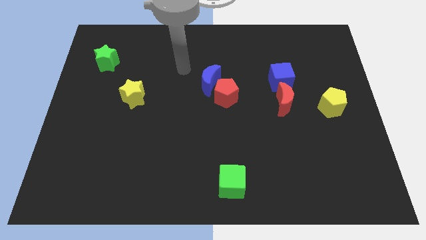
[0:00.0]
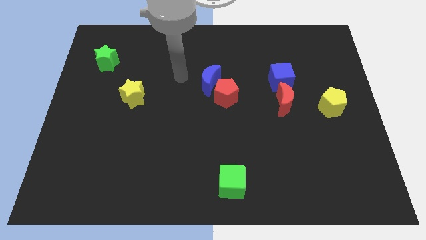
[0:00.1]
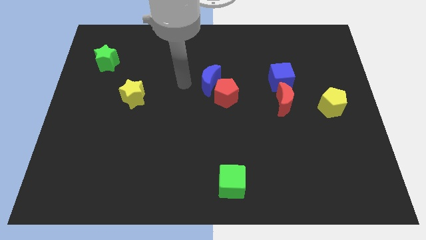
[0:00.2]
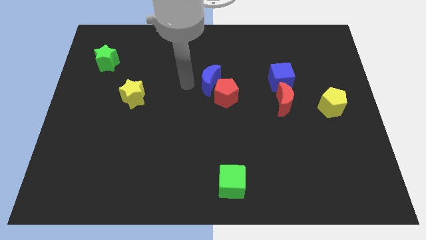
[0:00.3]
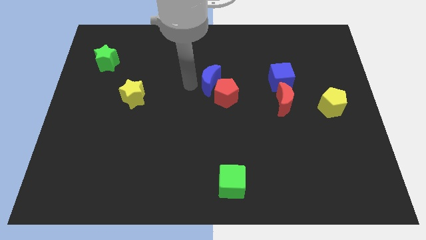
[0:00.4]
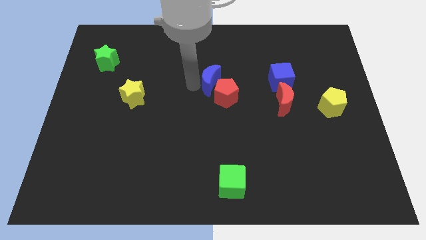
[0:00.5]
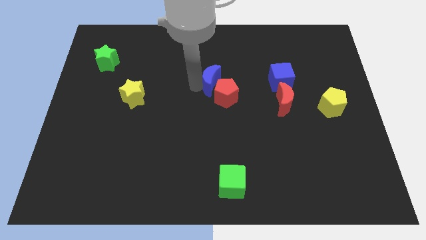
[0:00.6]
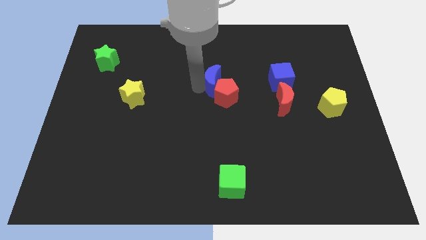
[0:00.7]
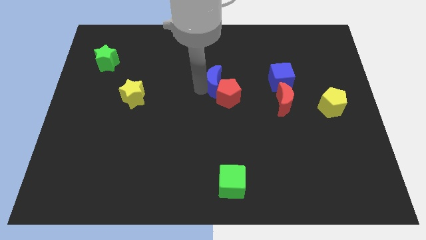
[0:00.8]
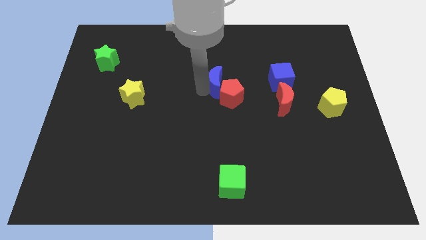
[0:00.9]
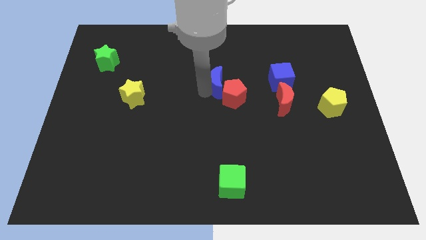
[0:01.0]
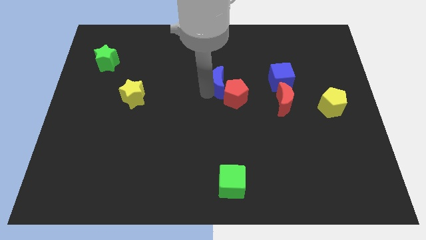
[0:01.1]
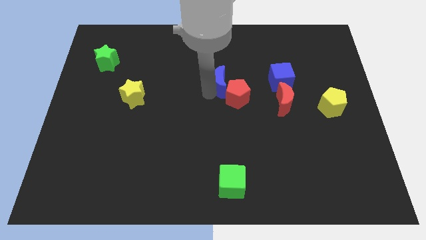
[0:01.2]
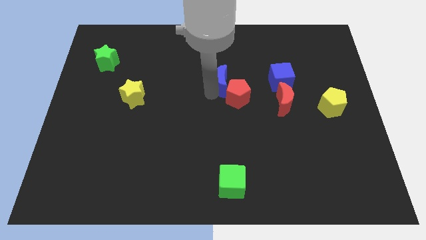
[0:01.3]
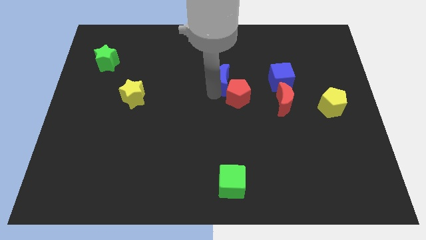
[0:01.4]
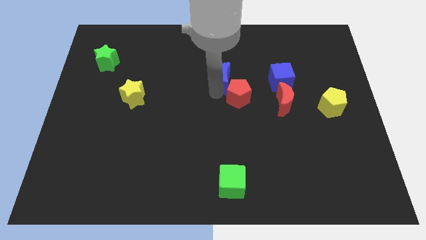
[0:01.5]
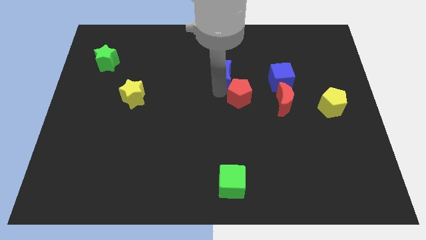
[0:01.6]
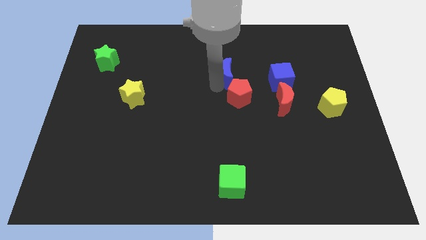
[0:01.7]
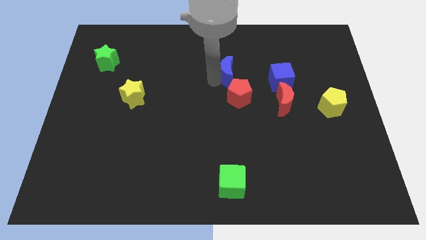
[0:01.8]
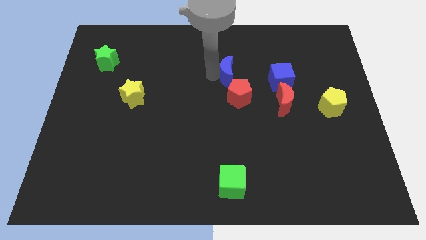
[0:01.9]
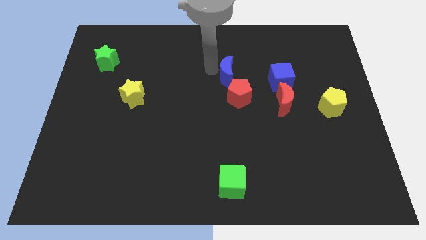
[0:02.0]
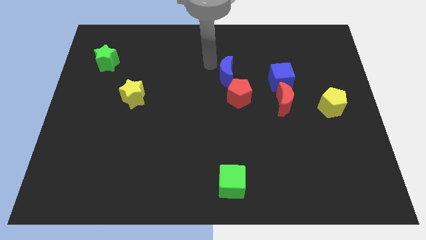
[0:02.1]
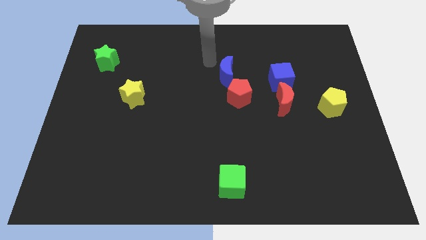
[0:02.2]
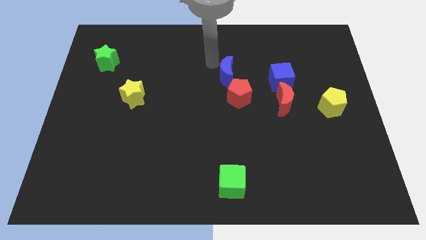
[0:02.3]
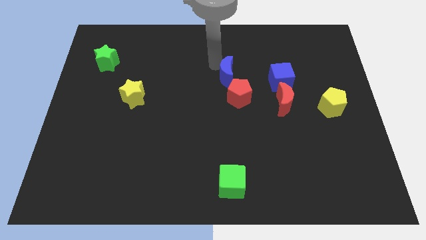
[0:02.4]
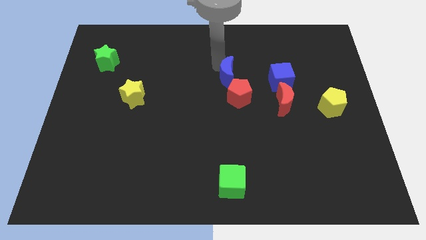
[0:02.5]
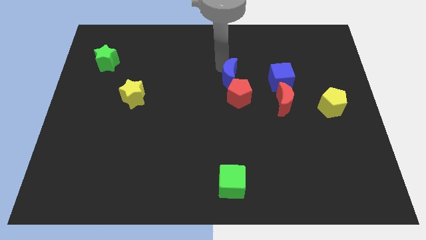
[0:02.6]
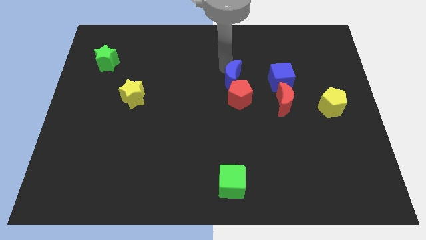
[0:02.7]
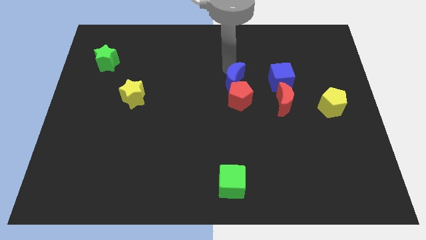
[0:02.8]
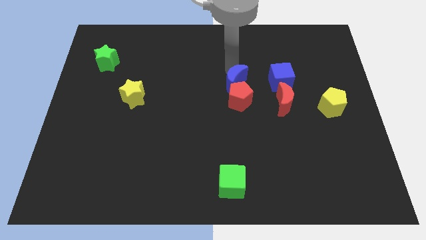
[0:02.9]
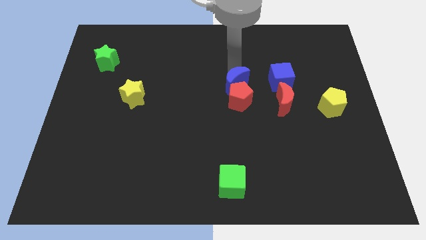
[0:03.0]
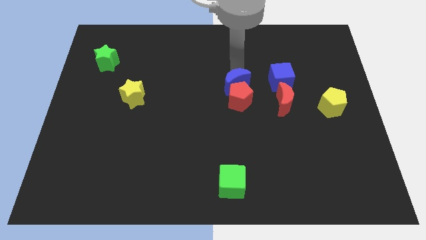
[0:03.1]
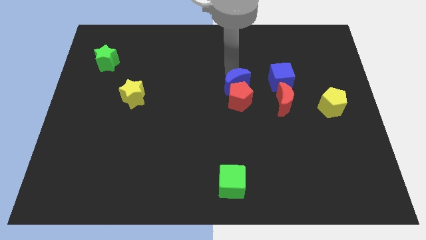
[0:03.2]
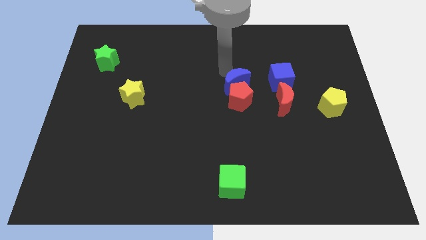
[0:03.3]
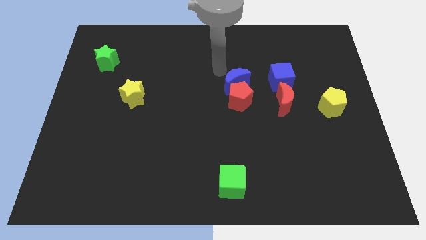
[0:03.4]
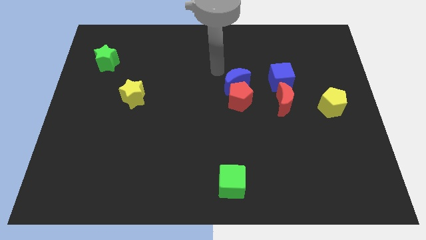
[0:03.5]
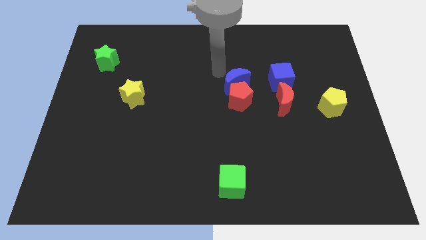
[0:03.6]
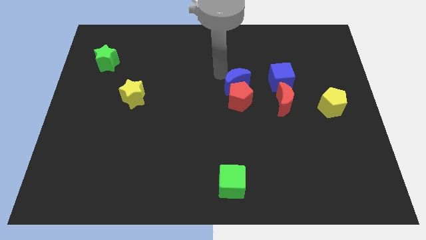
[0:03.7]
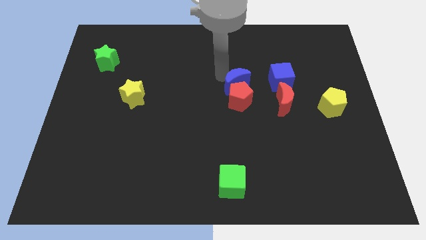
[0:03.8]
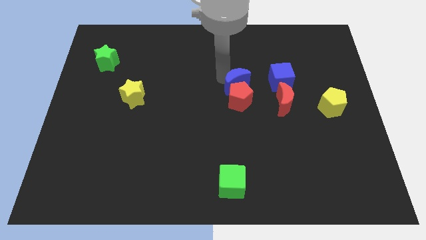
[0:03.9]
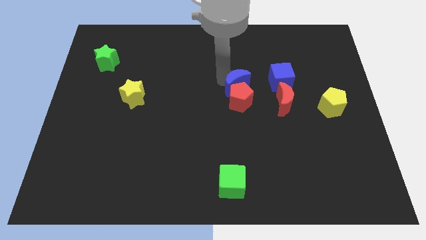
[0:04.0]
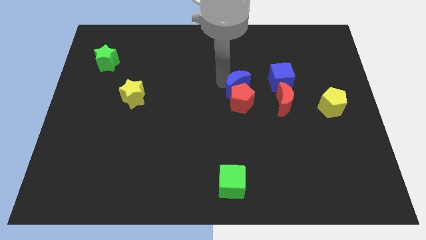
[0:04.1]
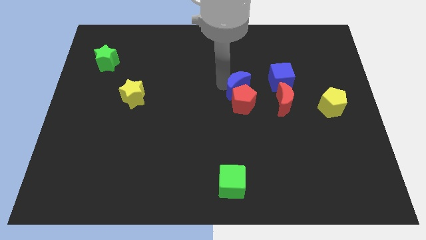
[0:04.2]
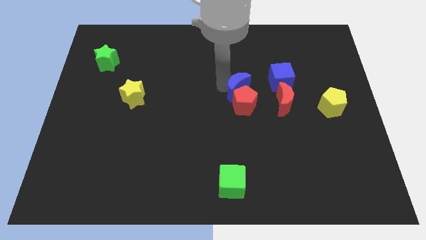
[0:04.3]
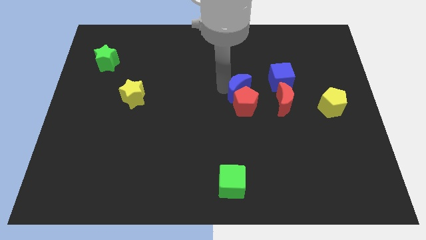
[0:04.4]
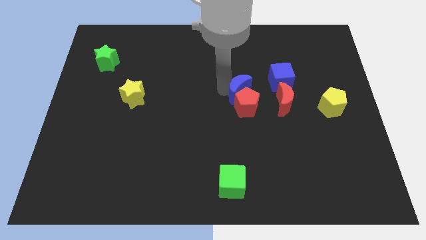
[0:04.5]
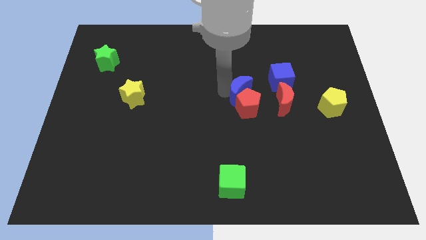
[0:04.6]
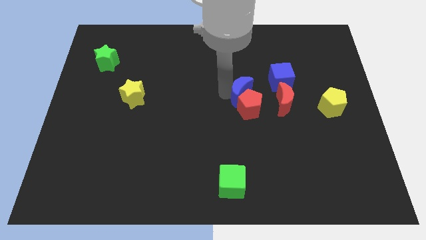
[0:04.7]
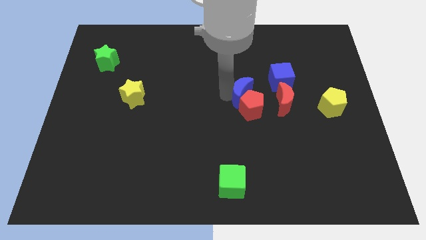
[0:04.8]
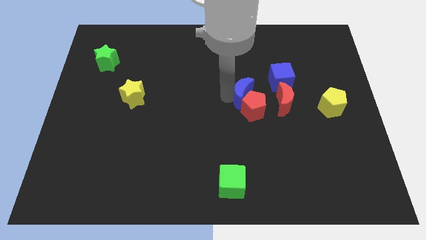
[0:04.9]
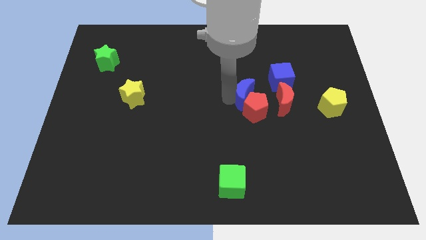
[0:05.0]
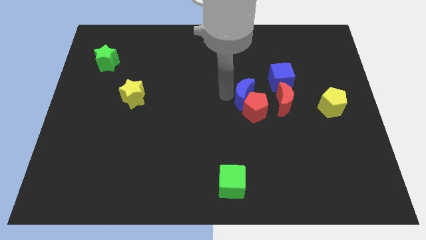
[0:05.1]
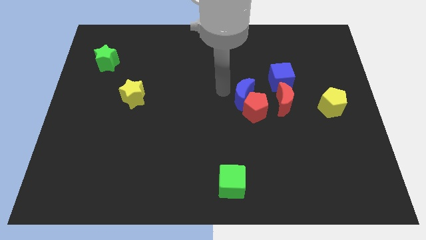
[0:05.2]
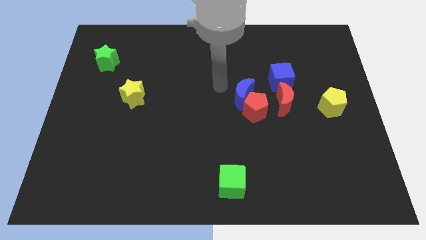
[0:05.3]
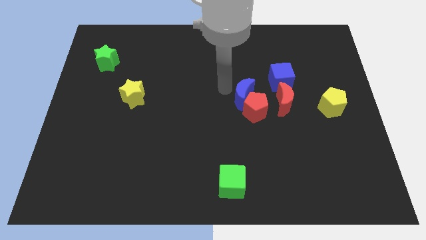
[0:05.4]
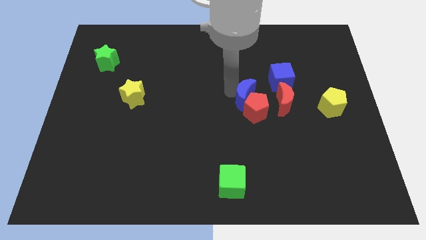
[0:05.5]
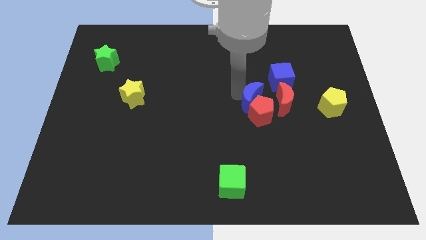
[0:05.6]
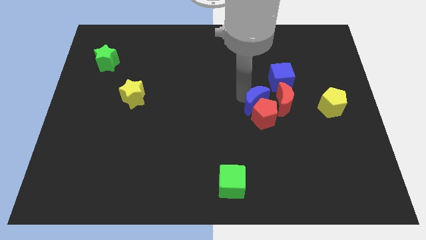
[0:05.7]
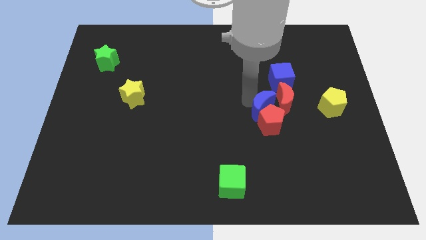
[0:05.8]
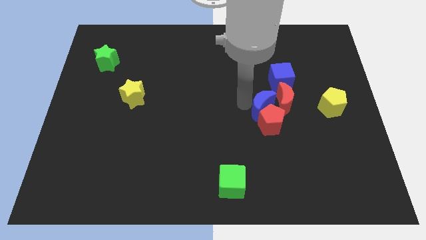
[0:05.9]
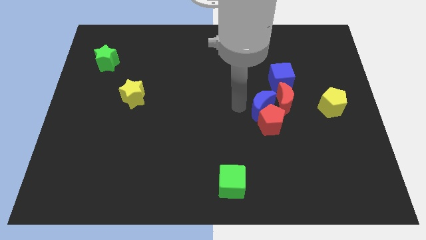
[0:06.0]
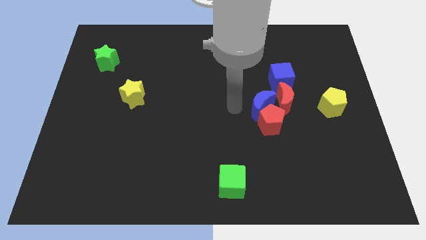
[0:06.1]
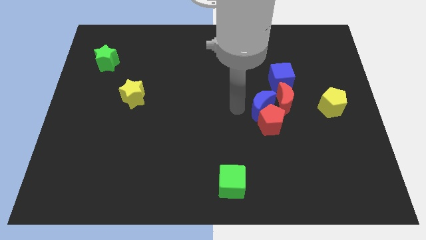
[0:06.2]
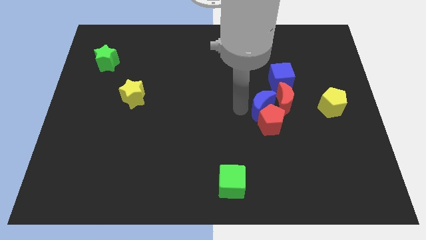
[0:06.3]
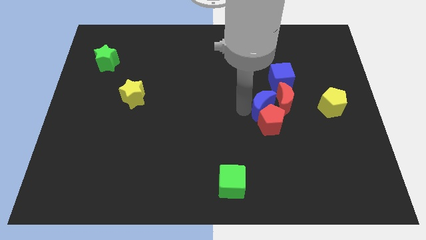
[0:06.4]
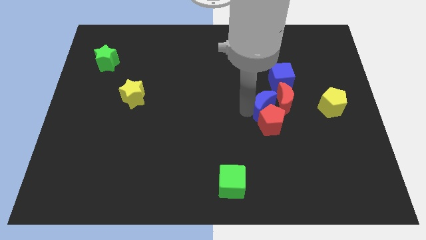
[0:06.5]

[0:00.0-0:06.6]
slide the blue moon just left of the yellow pentagon

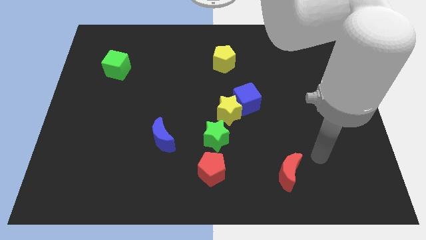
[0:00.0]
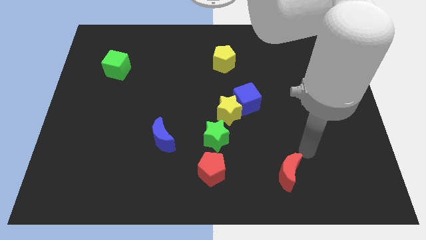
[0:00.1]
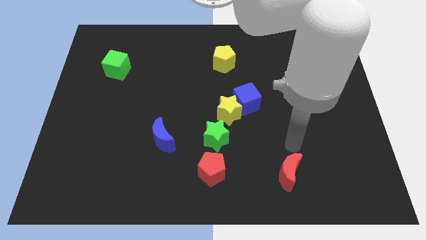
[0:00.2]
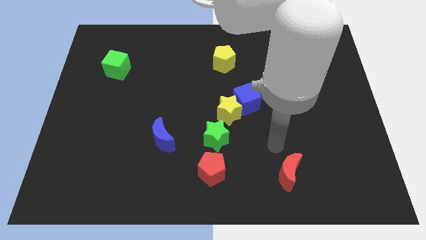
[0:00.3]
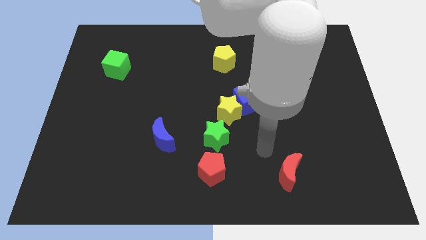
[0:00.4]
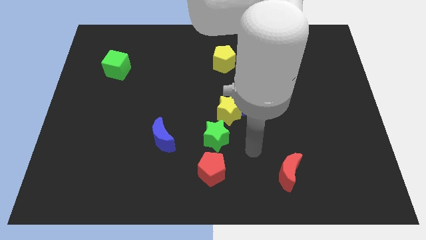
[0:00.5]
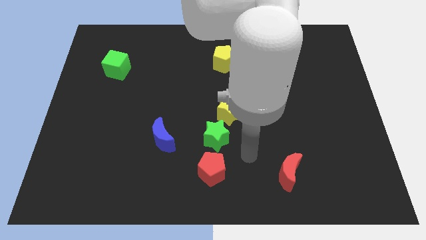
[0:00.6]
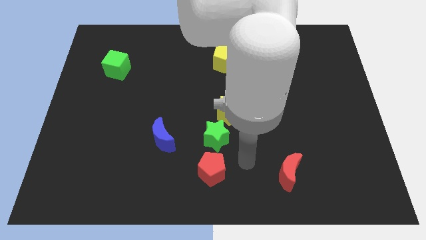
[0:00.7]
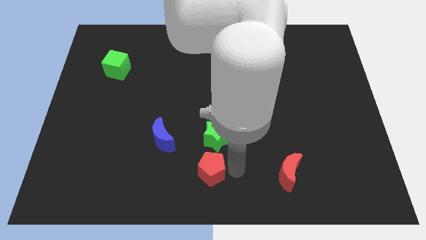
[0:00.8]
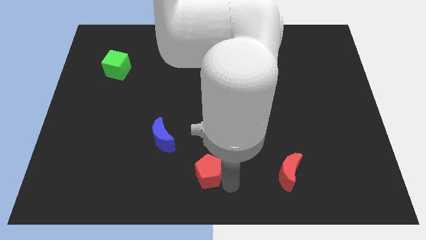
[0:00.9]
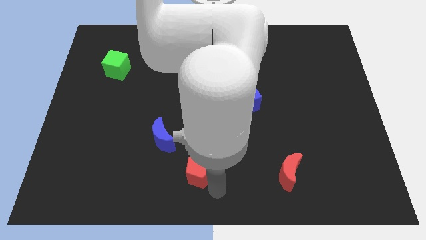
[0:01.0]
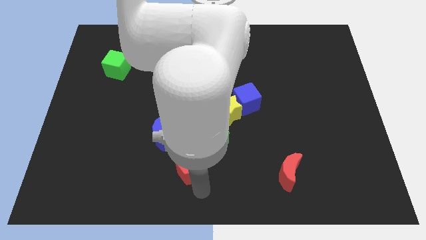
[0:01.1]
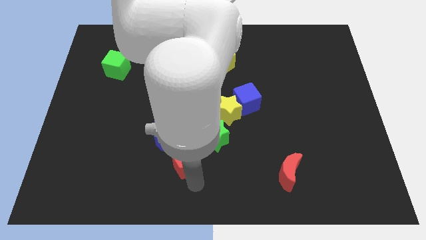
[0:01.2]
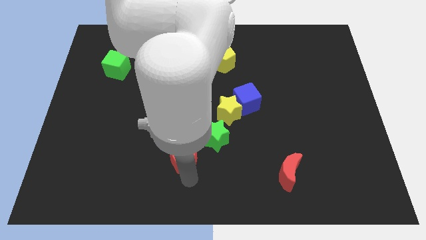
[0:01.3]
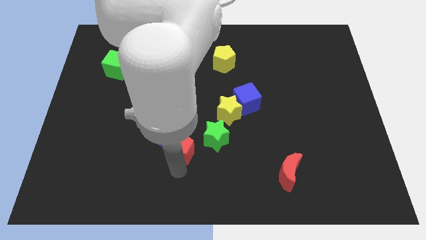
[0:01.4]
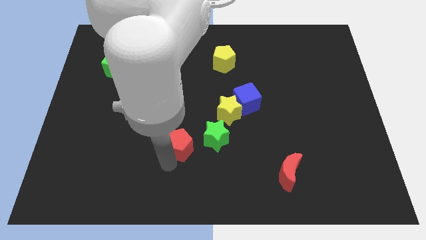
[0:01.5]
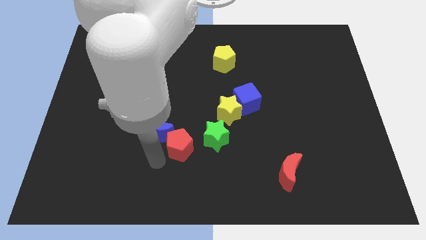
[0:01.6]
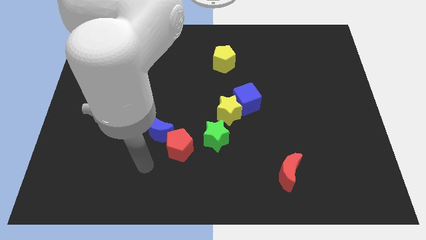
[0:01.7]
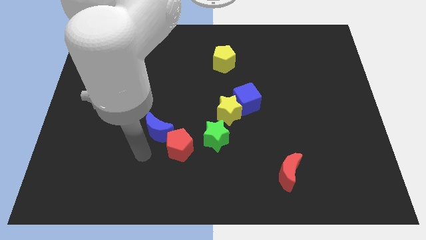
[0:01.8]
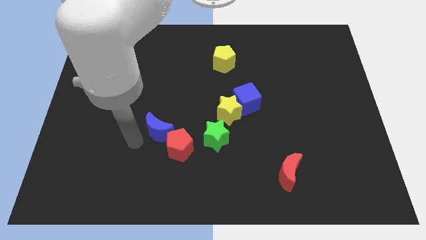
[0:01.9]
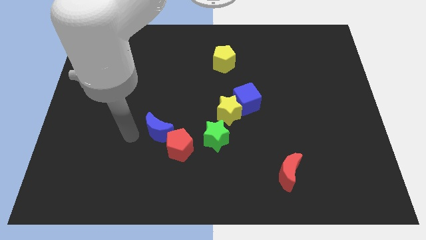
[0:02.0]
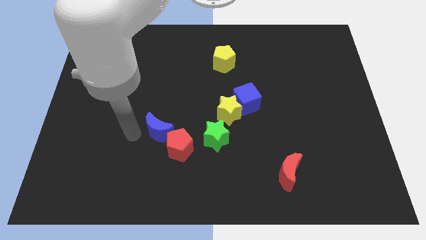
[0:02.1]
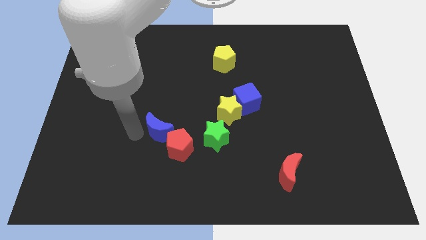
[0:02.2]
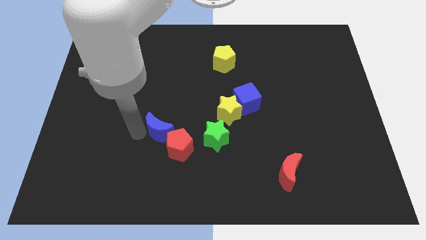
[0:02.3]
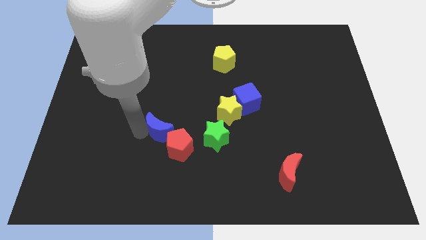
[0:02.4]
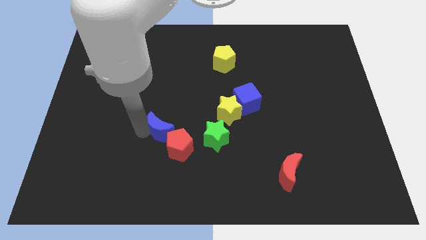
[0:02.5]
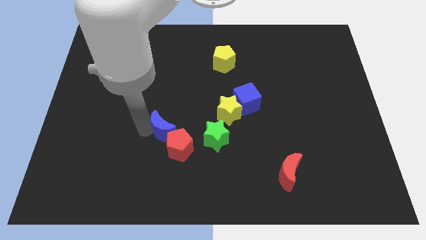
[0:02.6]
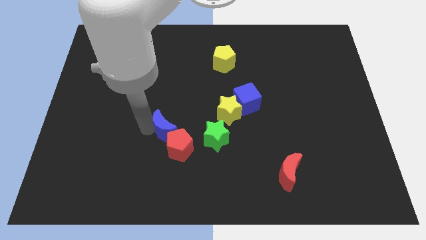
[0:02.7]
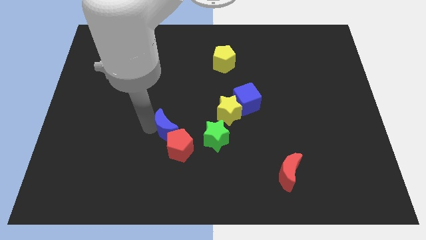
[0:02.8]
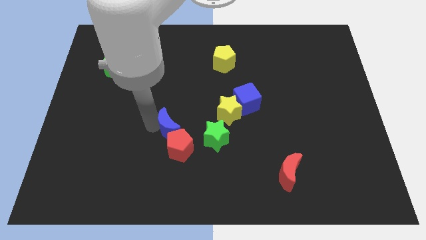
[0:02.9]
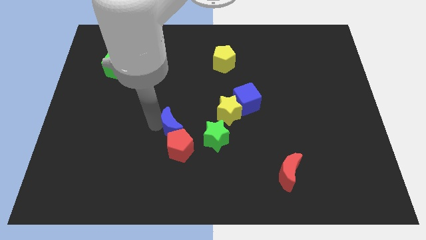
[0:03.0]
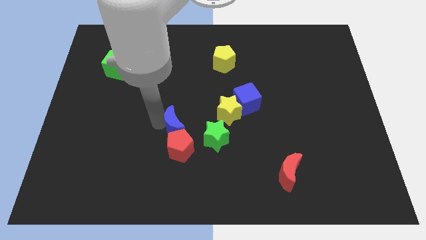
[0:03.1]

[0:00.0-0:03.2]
put the blue moon to the top left of the green star
